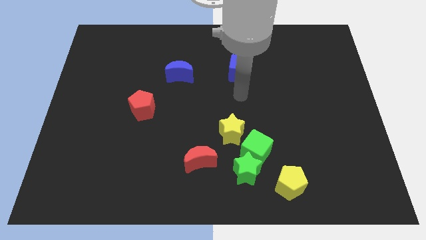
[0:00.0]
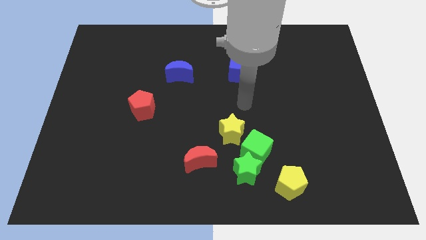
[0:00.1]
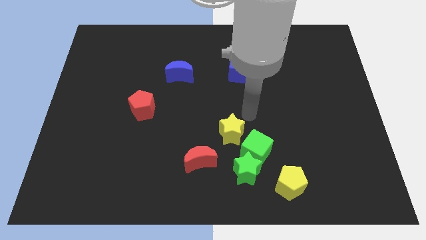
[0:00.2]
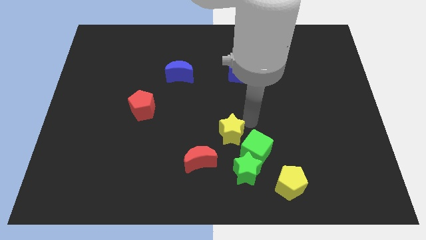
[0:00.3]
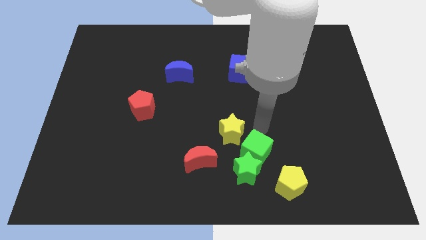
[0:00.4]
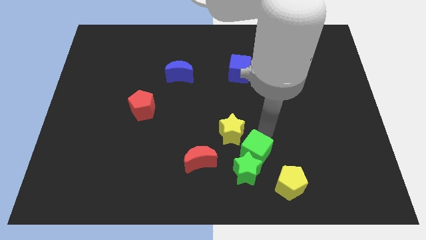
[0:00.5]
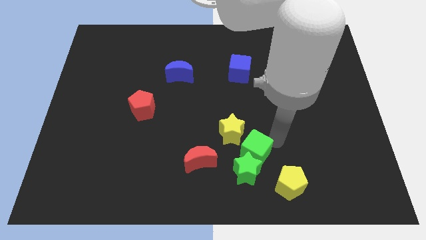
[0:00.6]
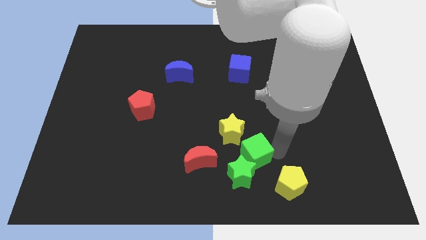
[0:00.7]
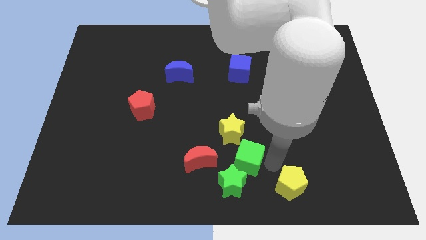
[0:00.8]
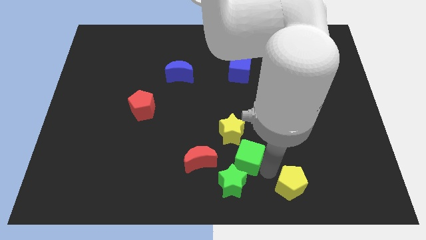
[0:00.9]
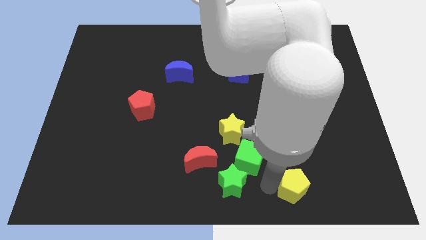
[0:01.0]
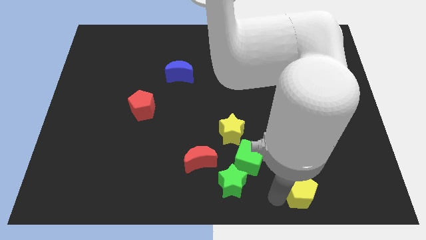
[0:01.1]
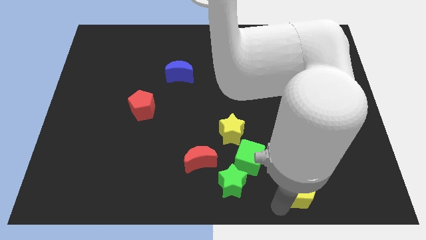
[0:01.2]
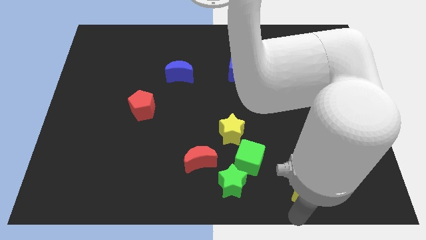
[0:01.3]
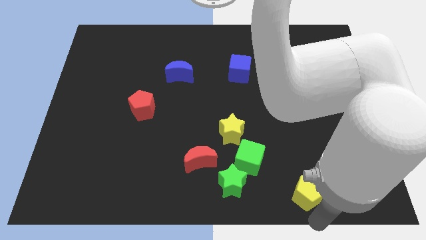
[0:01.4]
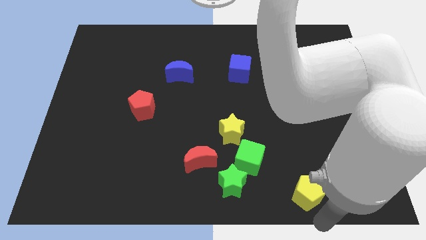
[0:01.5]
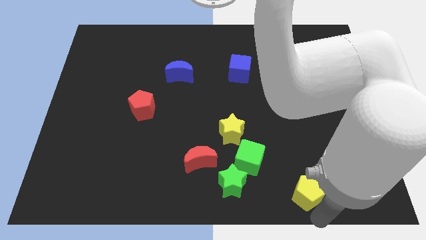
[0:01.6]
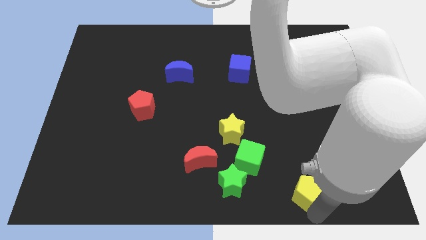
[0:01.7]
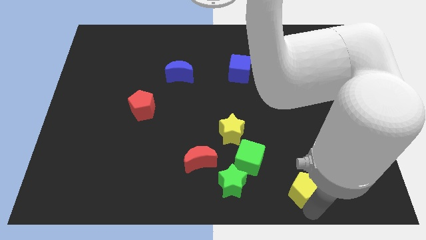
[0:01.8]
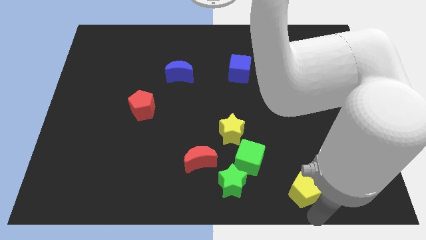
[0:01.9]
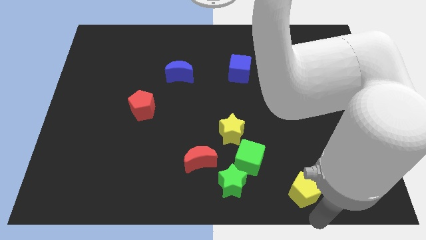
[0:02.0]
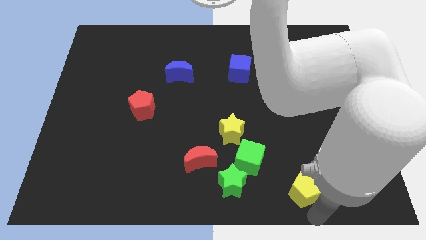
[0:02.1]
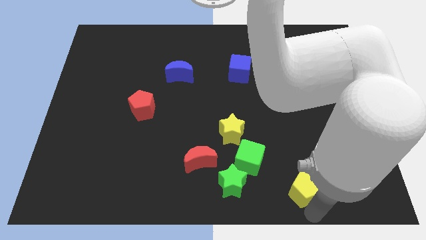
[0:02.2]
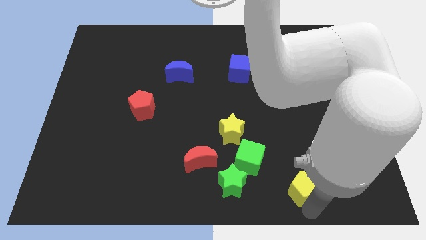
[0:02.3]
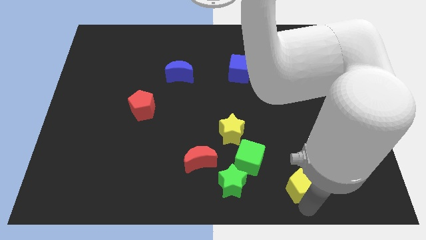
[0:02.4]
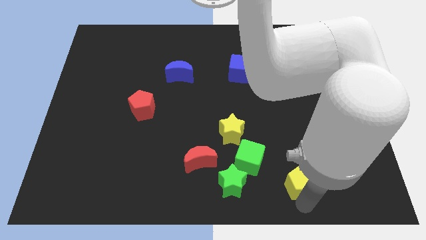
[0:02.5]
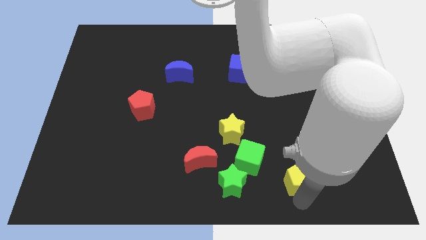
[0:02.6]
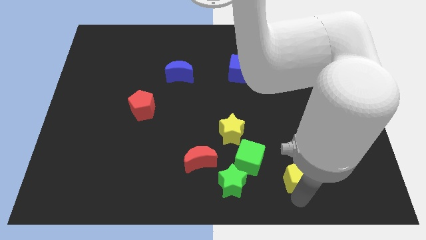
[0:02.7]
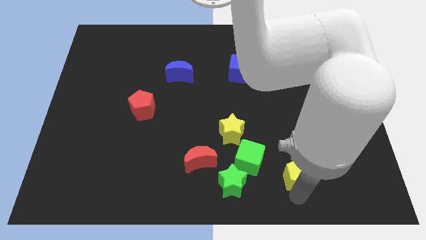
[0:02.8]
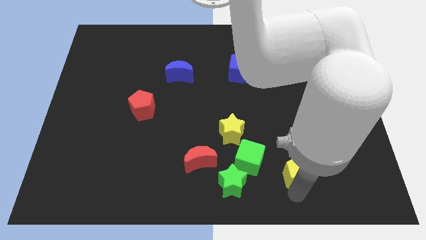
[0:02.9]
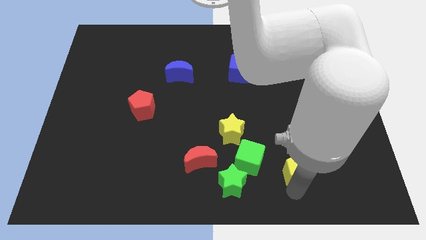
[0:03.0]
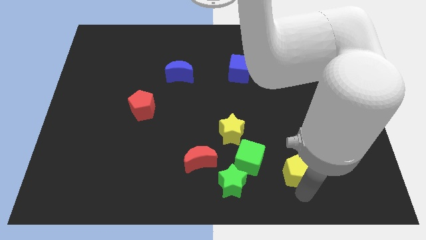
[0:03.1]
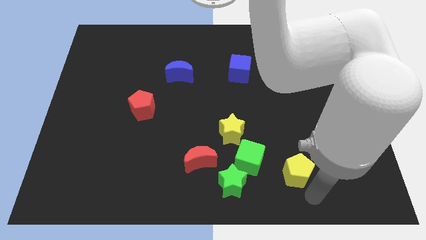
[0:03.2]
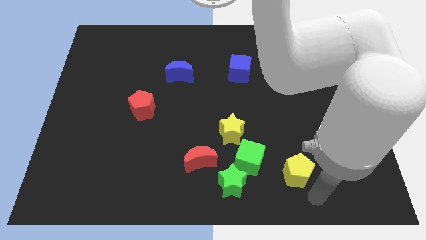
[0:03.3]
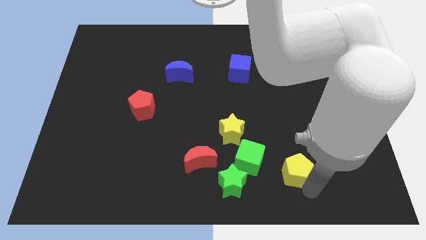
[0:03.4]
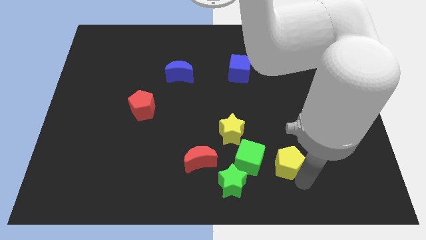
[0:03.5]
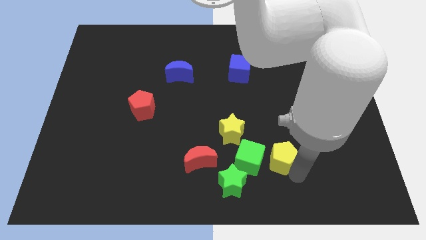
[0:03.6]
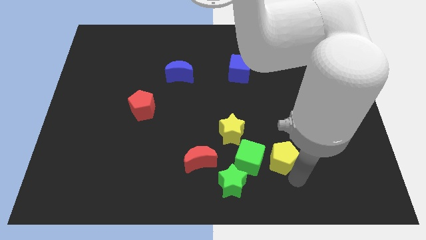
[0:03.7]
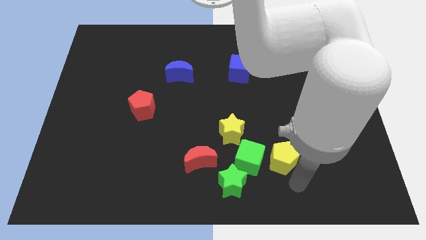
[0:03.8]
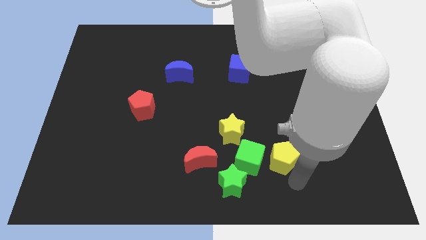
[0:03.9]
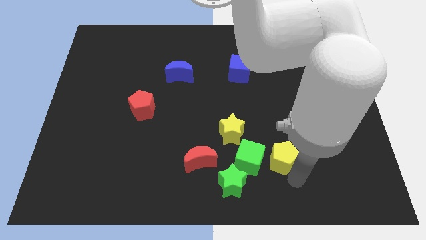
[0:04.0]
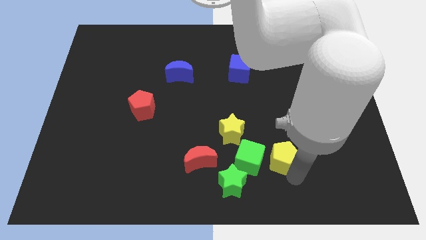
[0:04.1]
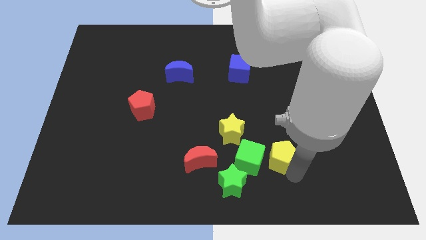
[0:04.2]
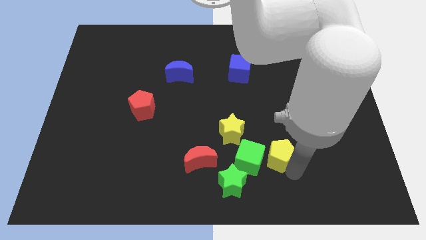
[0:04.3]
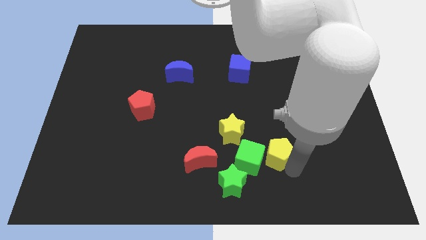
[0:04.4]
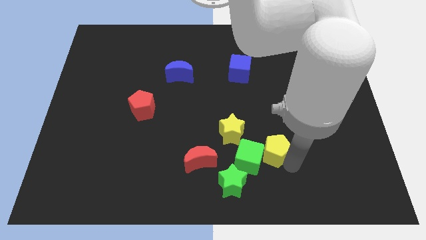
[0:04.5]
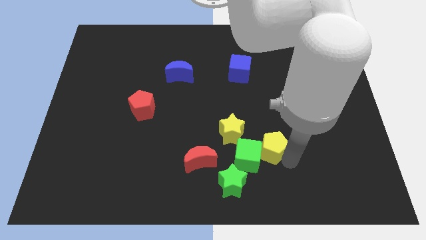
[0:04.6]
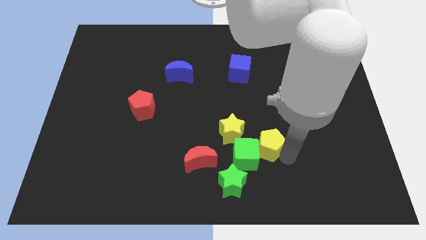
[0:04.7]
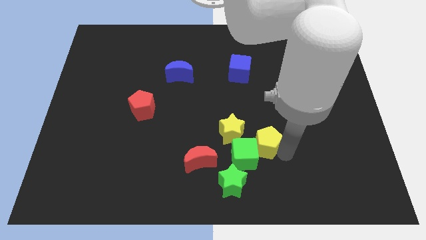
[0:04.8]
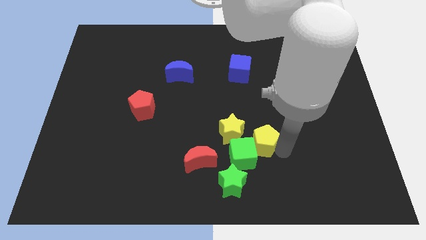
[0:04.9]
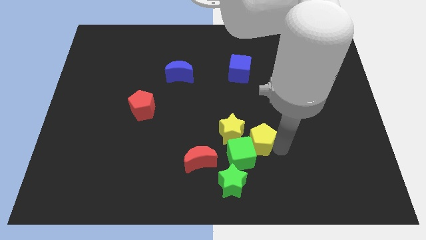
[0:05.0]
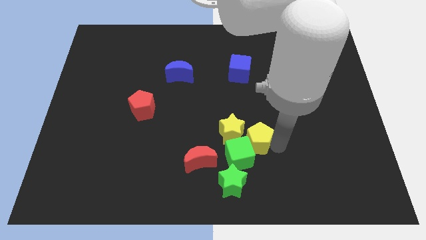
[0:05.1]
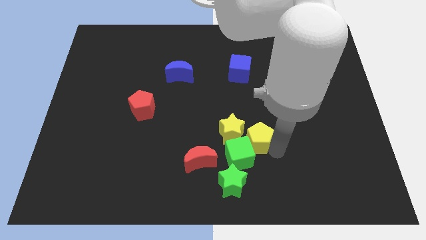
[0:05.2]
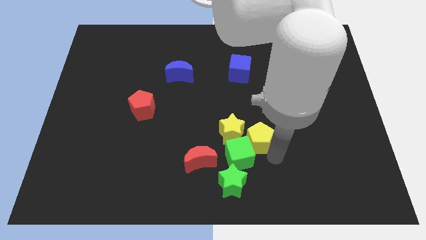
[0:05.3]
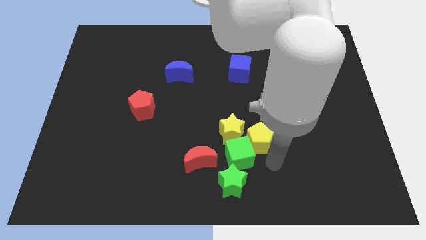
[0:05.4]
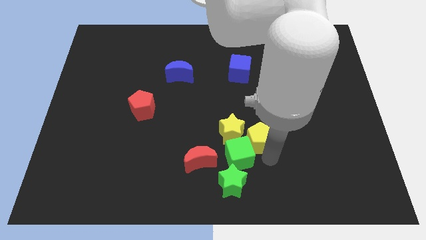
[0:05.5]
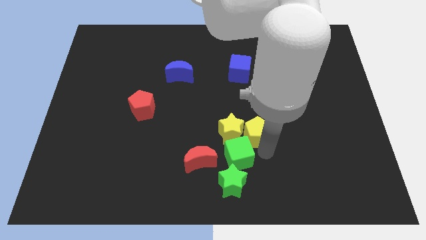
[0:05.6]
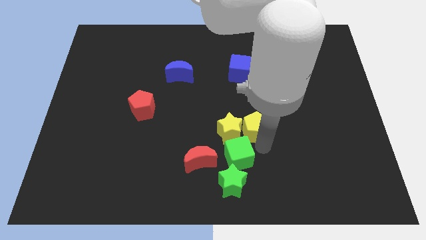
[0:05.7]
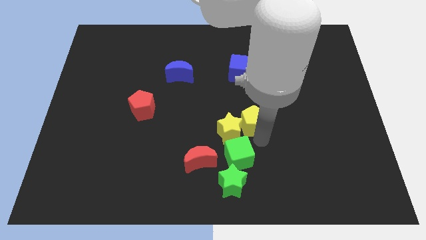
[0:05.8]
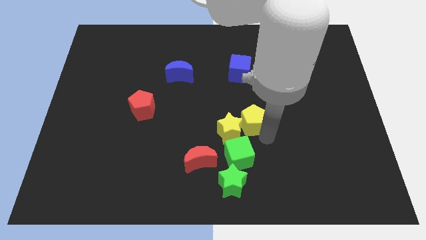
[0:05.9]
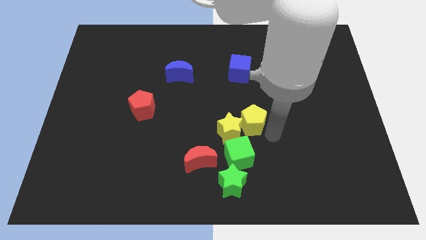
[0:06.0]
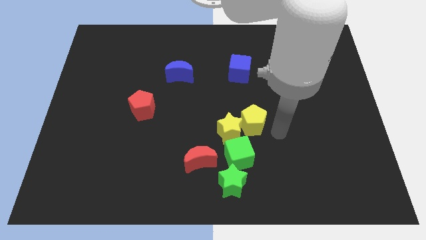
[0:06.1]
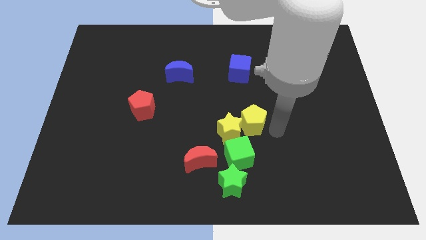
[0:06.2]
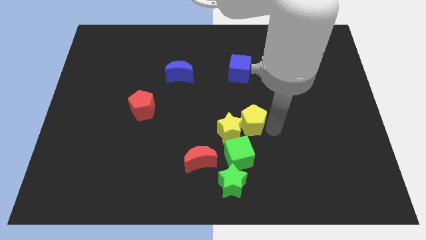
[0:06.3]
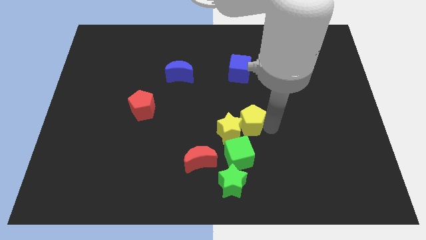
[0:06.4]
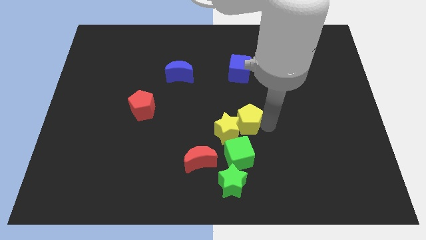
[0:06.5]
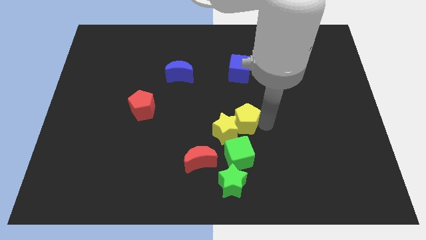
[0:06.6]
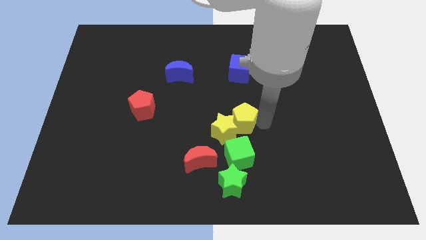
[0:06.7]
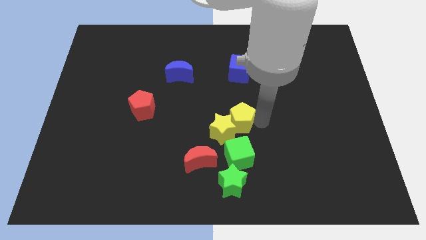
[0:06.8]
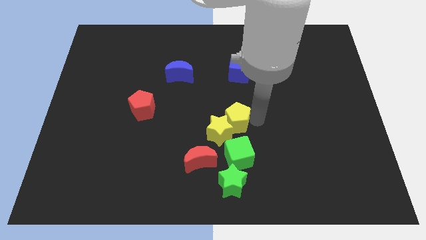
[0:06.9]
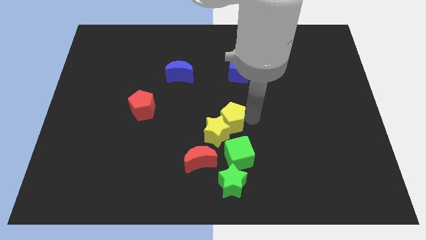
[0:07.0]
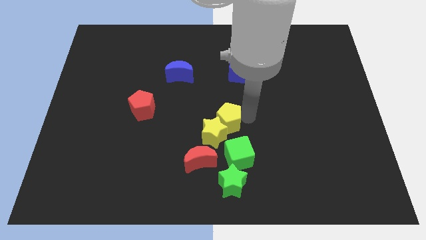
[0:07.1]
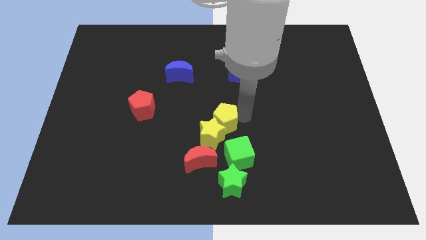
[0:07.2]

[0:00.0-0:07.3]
slide the yellow pentagon up and then to the left

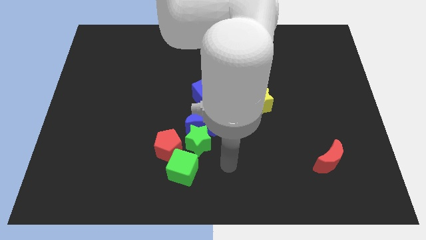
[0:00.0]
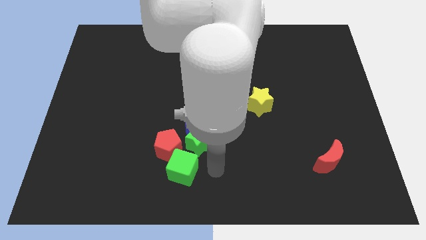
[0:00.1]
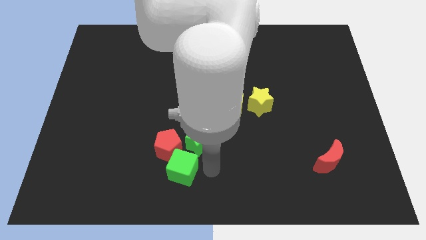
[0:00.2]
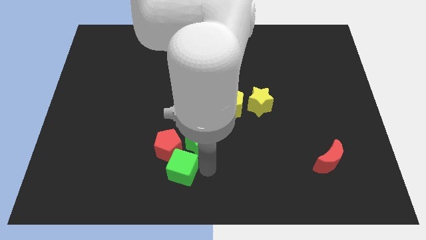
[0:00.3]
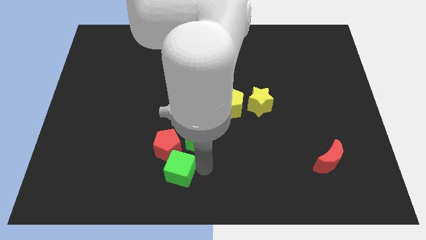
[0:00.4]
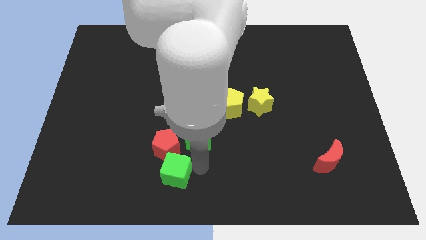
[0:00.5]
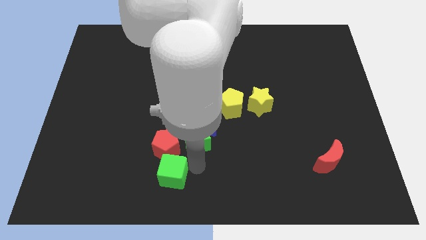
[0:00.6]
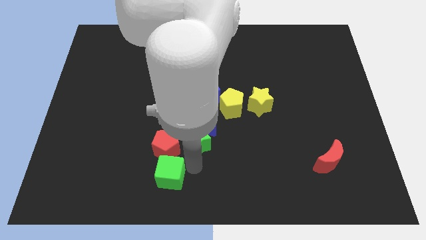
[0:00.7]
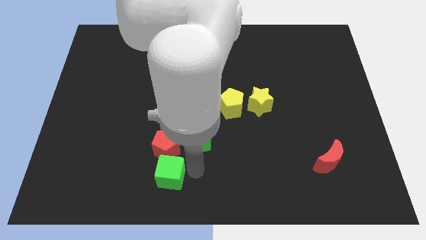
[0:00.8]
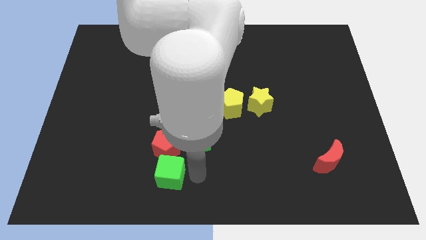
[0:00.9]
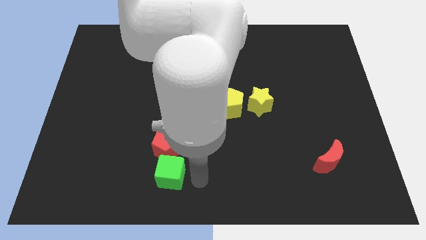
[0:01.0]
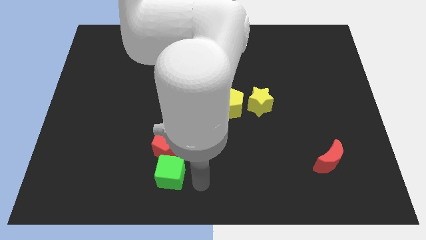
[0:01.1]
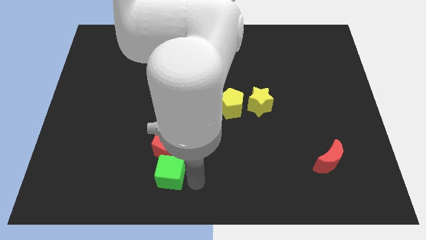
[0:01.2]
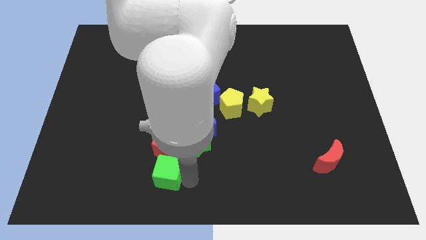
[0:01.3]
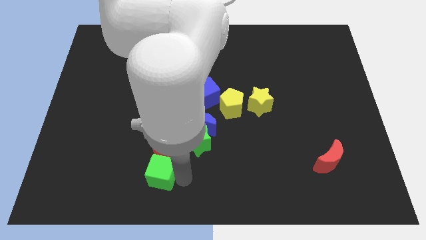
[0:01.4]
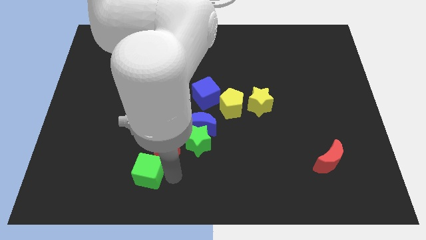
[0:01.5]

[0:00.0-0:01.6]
slide the green cube left somewhat
